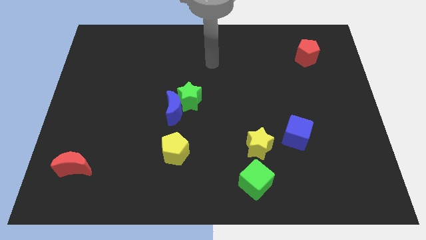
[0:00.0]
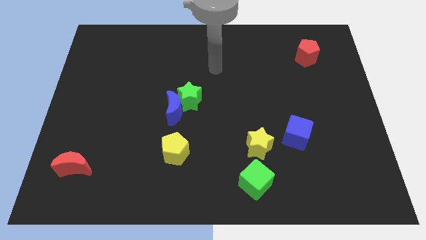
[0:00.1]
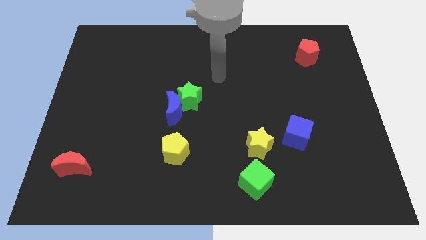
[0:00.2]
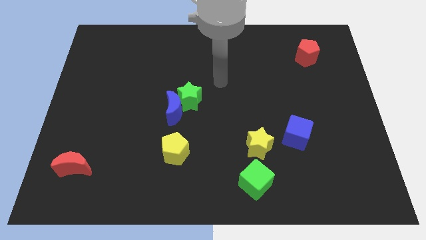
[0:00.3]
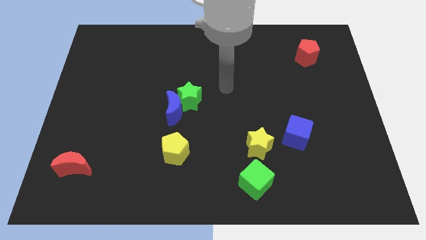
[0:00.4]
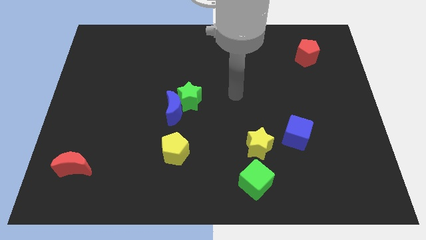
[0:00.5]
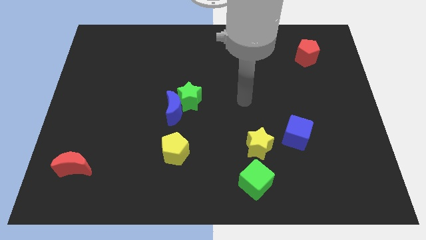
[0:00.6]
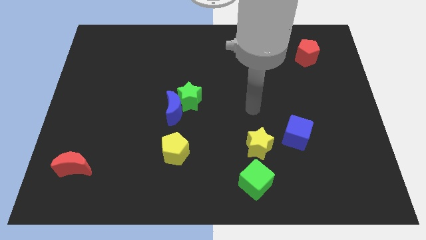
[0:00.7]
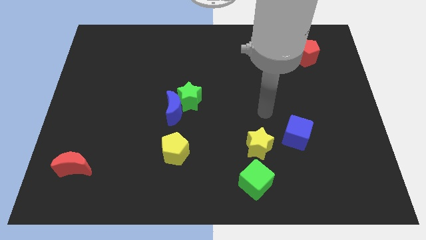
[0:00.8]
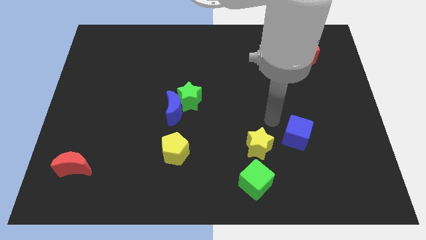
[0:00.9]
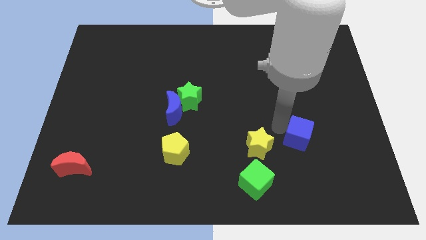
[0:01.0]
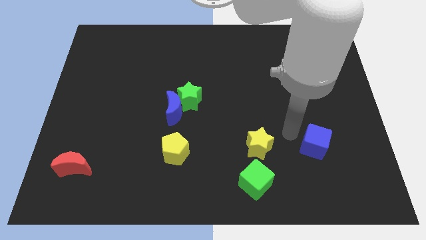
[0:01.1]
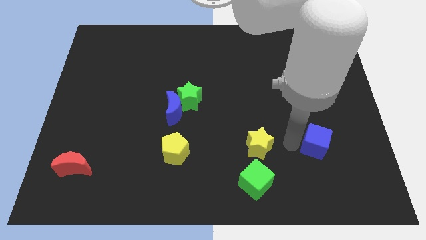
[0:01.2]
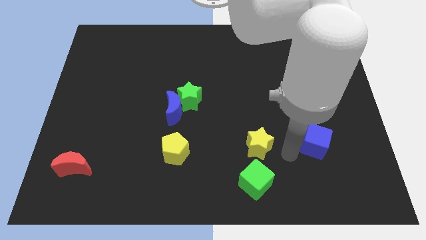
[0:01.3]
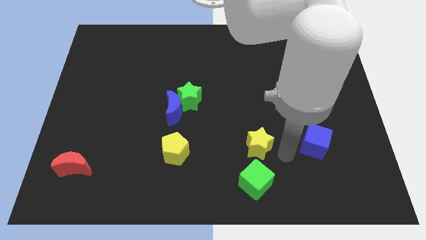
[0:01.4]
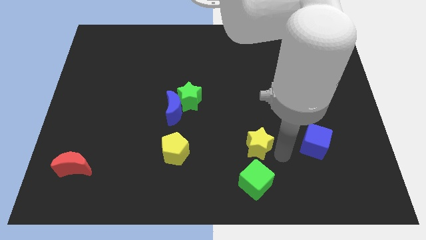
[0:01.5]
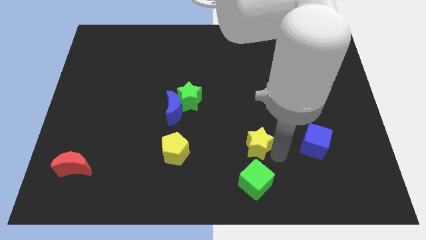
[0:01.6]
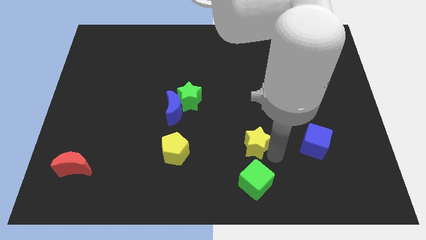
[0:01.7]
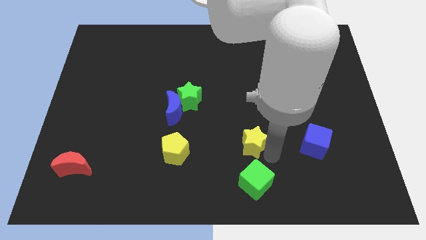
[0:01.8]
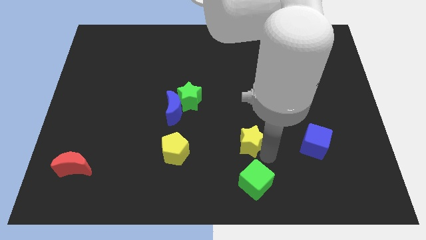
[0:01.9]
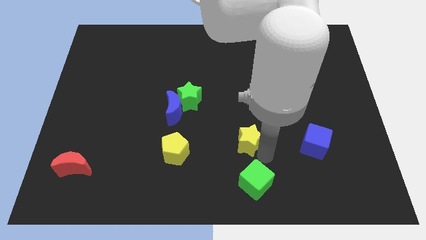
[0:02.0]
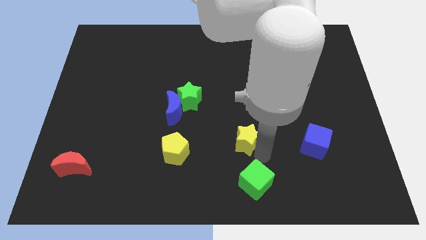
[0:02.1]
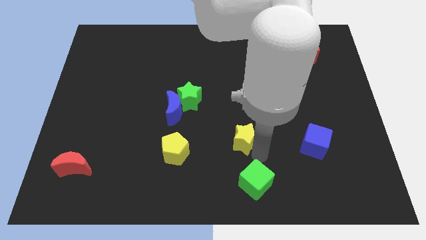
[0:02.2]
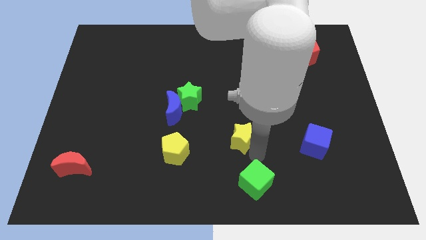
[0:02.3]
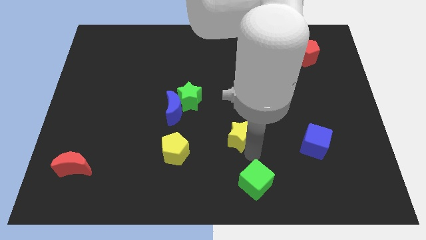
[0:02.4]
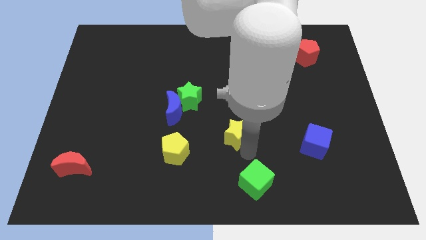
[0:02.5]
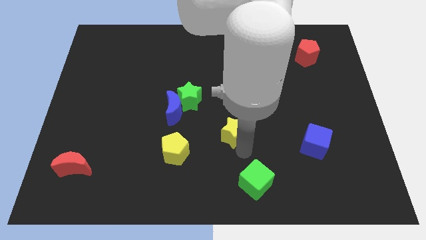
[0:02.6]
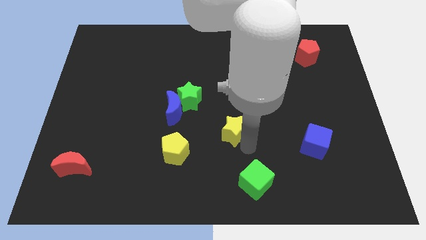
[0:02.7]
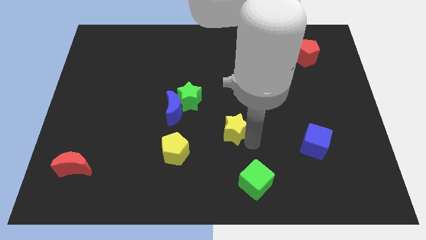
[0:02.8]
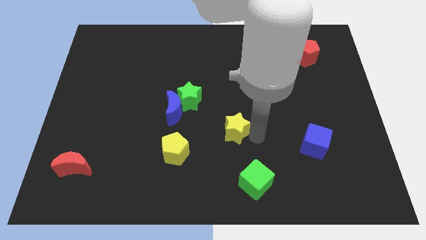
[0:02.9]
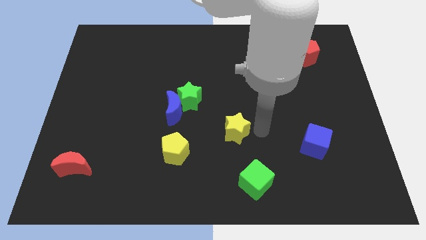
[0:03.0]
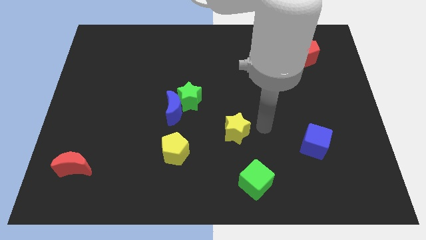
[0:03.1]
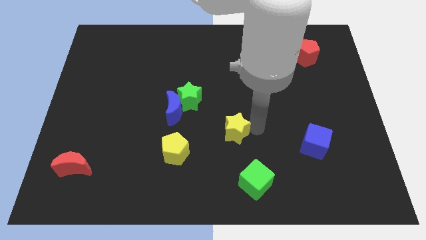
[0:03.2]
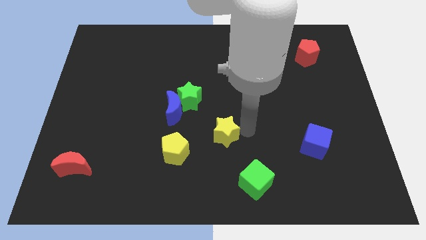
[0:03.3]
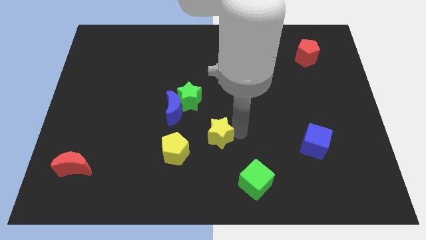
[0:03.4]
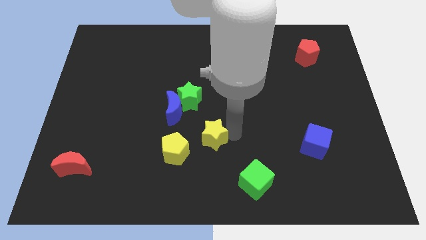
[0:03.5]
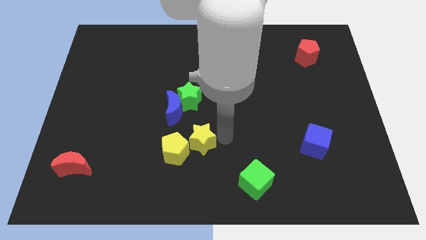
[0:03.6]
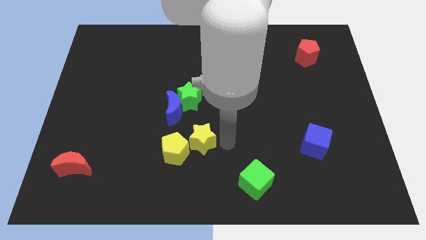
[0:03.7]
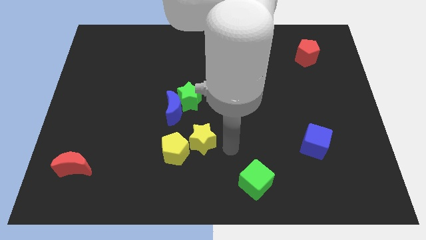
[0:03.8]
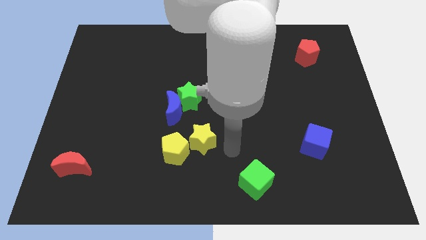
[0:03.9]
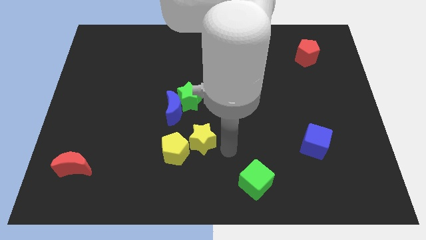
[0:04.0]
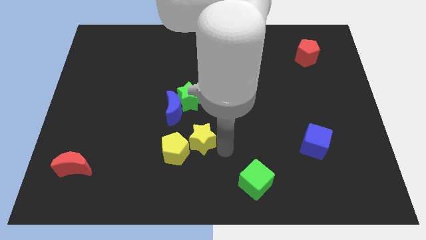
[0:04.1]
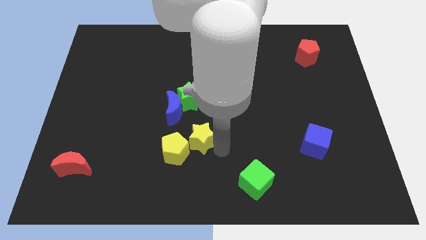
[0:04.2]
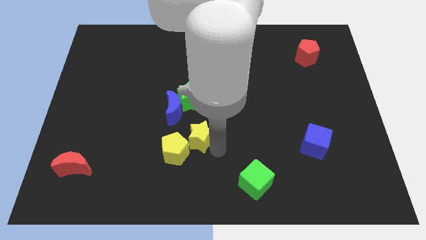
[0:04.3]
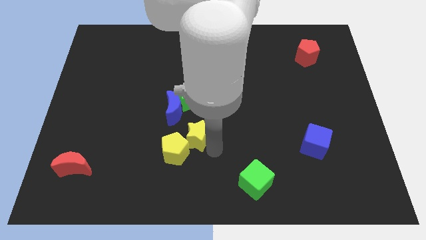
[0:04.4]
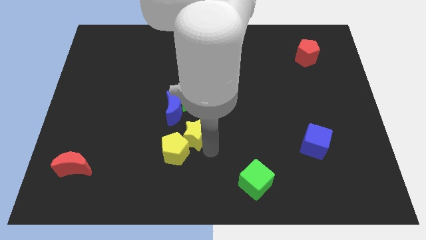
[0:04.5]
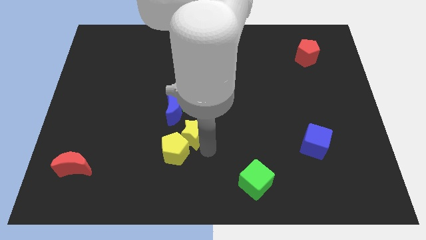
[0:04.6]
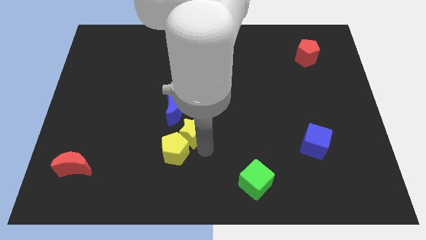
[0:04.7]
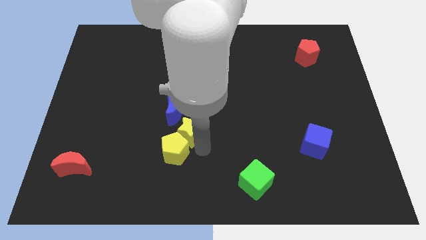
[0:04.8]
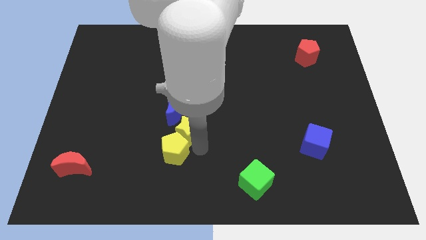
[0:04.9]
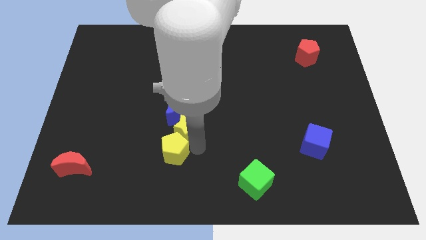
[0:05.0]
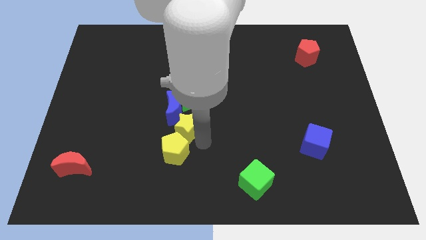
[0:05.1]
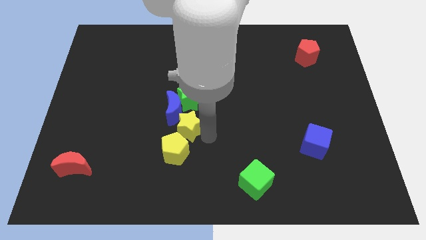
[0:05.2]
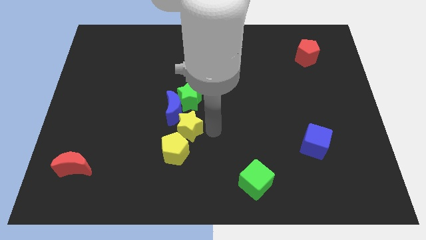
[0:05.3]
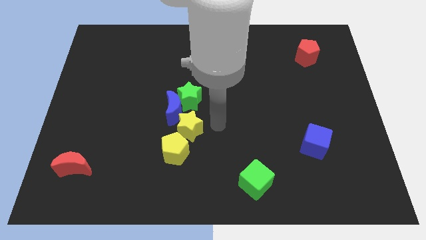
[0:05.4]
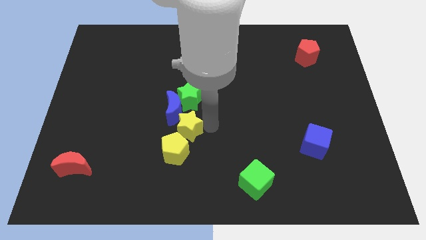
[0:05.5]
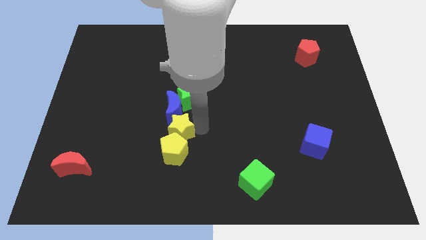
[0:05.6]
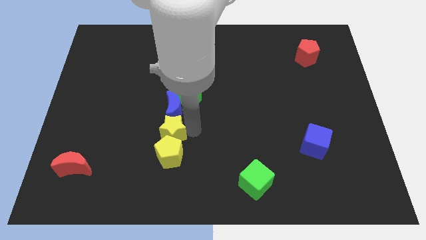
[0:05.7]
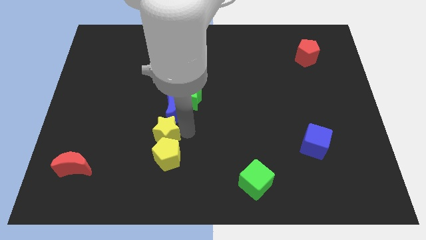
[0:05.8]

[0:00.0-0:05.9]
move the yellow star left

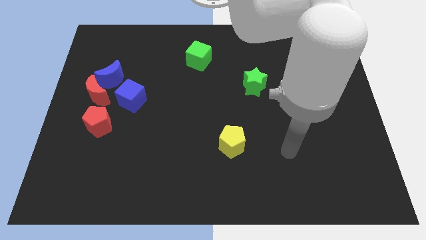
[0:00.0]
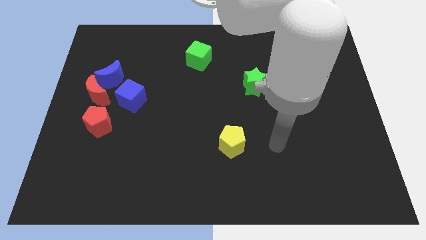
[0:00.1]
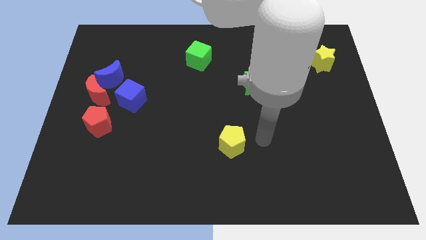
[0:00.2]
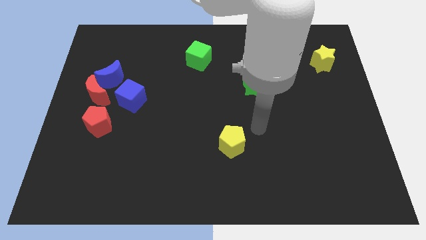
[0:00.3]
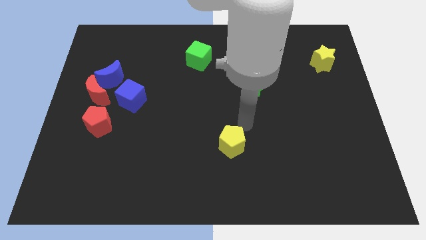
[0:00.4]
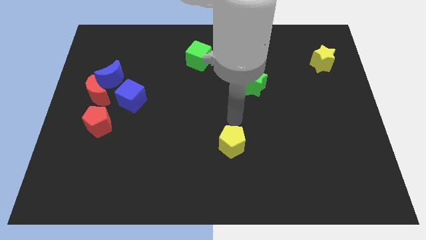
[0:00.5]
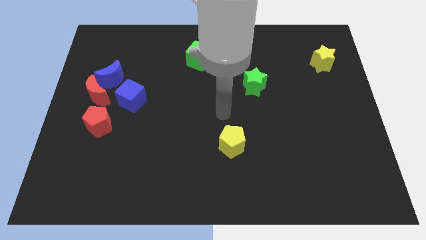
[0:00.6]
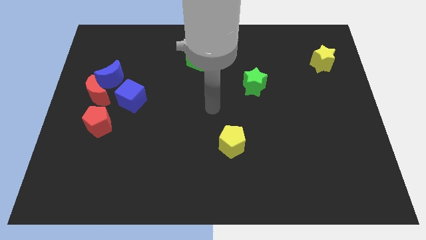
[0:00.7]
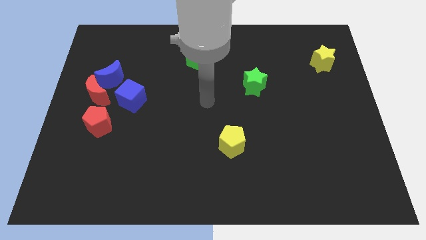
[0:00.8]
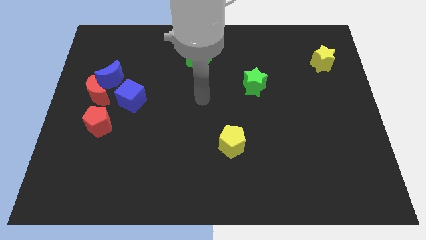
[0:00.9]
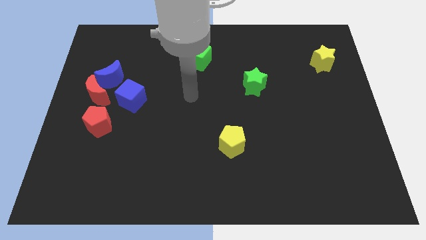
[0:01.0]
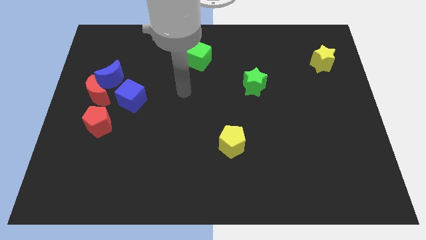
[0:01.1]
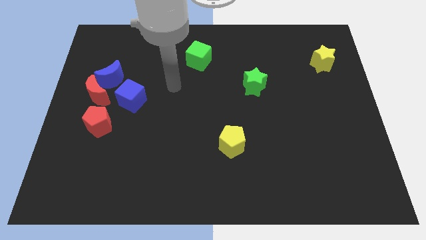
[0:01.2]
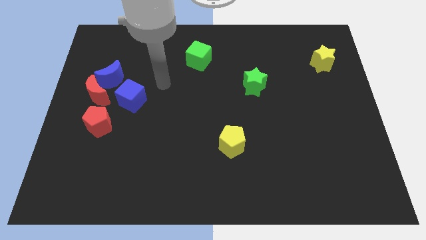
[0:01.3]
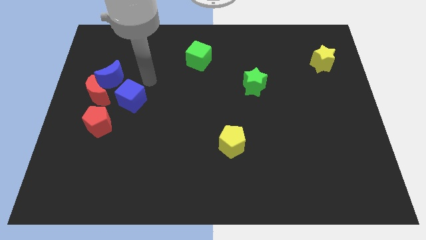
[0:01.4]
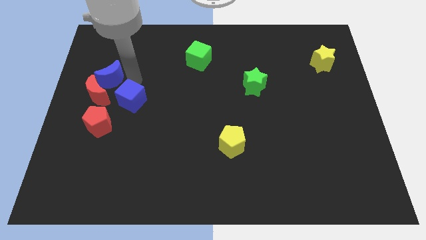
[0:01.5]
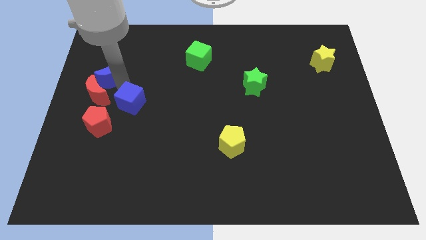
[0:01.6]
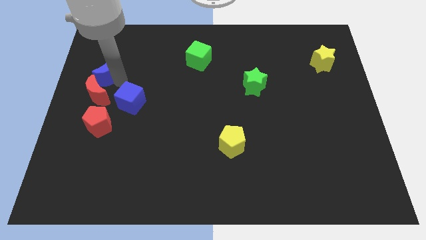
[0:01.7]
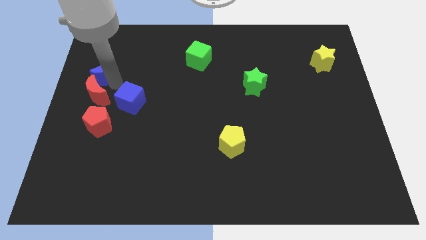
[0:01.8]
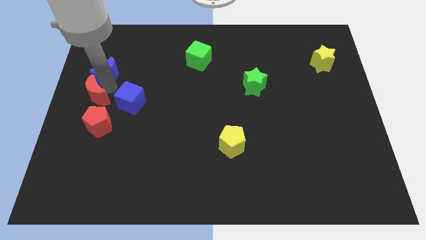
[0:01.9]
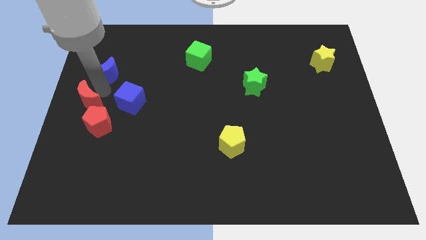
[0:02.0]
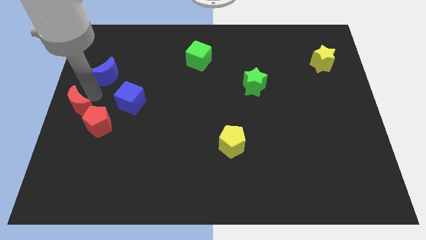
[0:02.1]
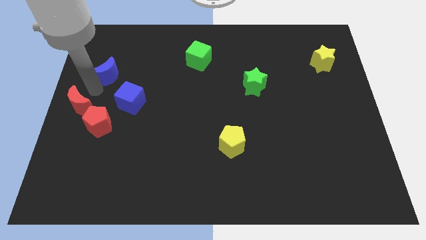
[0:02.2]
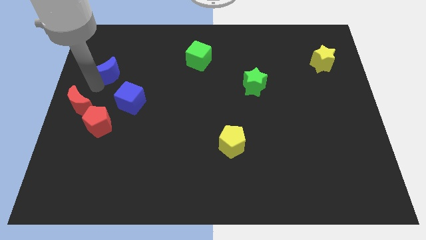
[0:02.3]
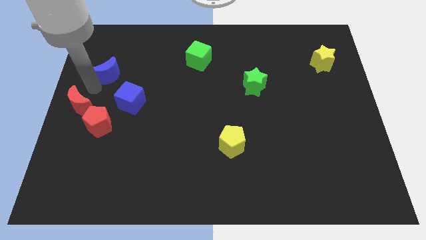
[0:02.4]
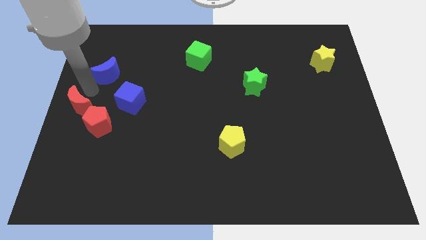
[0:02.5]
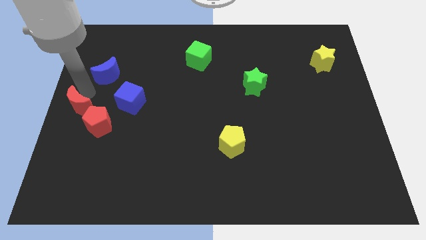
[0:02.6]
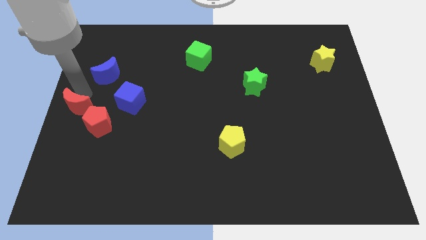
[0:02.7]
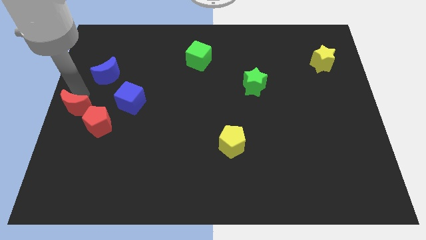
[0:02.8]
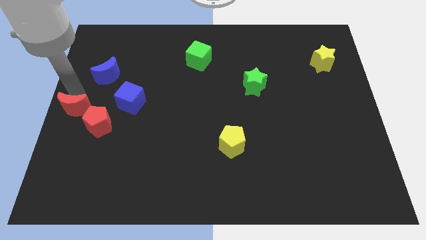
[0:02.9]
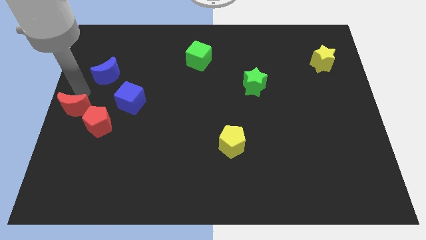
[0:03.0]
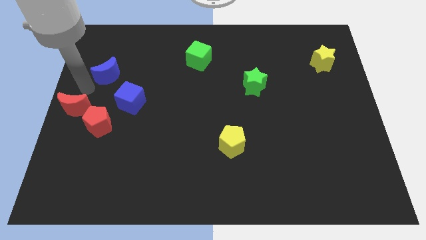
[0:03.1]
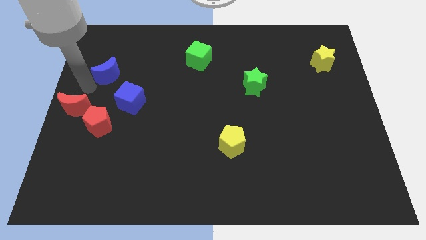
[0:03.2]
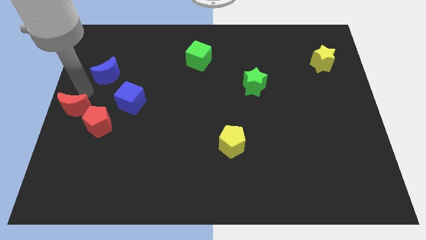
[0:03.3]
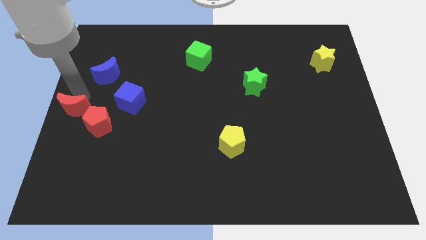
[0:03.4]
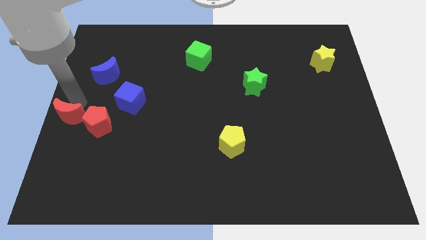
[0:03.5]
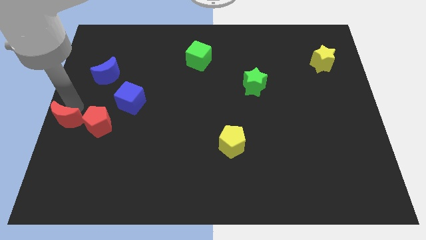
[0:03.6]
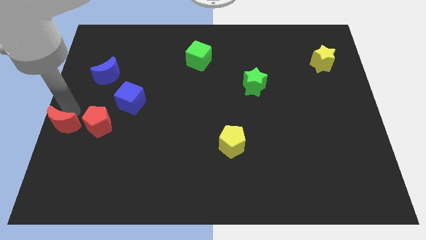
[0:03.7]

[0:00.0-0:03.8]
push the red moon a little bit down
